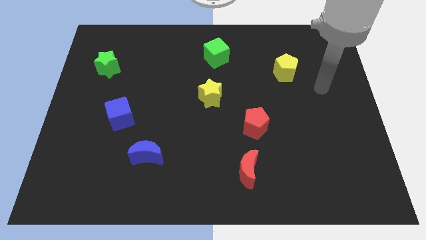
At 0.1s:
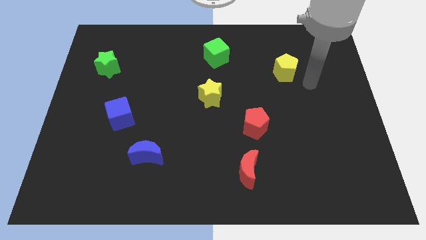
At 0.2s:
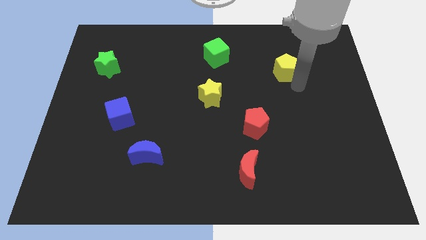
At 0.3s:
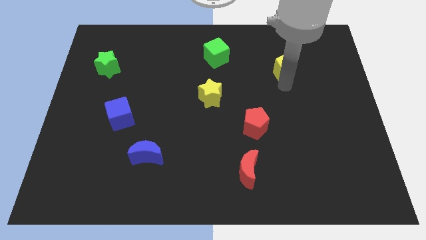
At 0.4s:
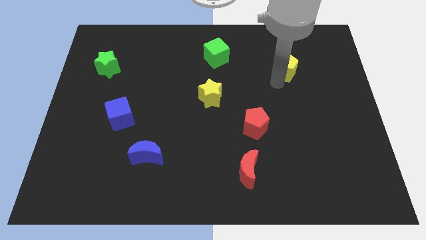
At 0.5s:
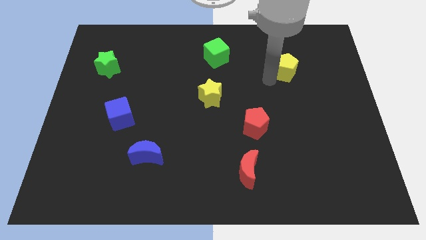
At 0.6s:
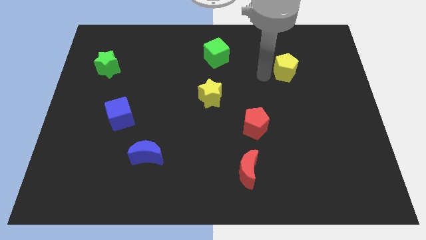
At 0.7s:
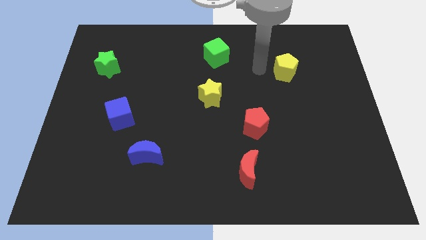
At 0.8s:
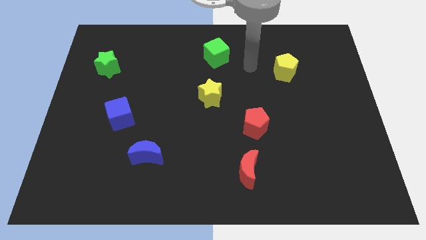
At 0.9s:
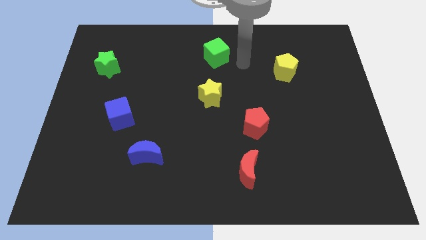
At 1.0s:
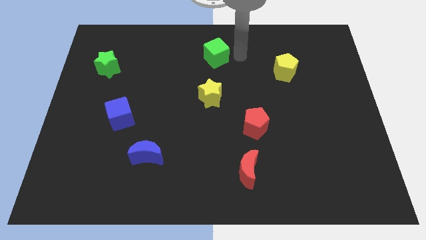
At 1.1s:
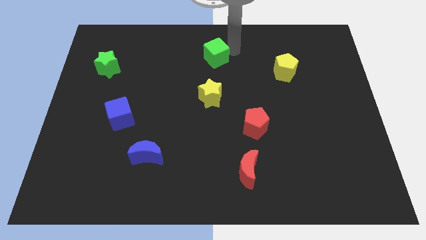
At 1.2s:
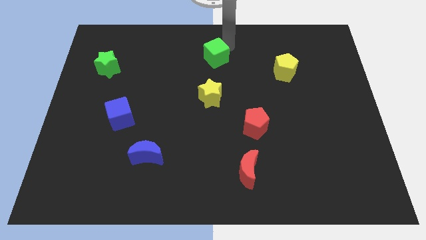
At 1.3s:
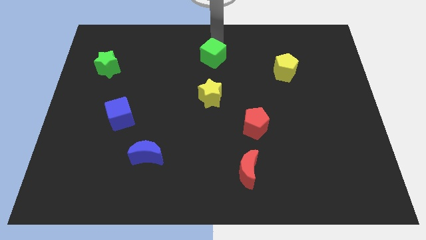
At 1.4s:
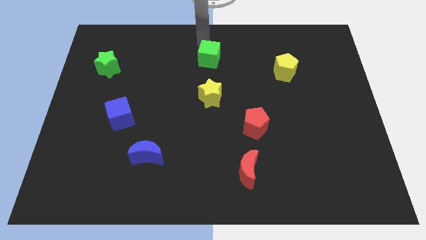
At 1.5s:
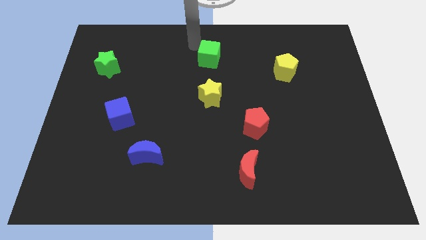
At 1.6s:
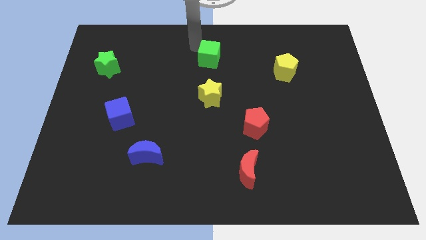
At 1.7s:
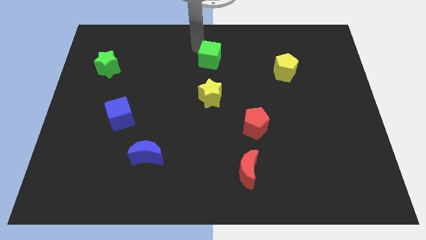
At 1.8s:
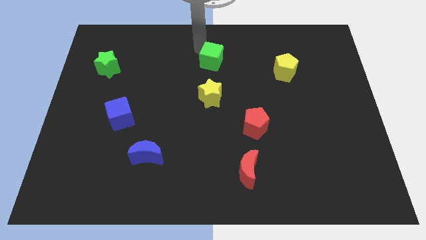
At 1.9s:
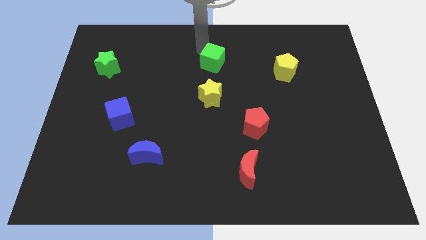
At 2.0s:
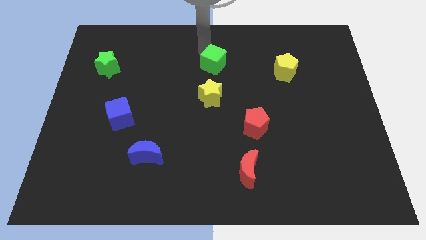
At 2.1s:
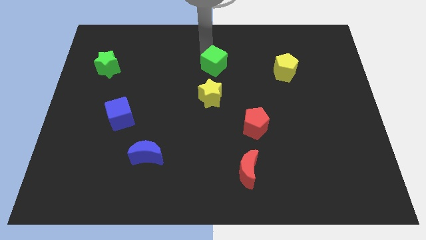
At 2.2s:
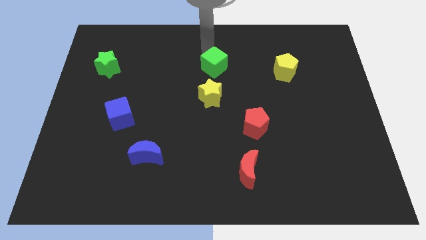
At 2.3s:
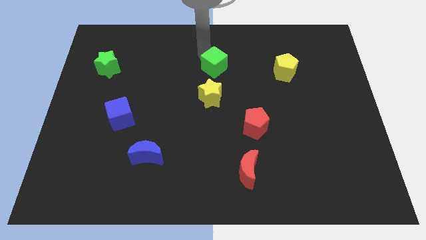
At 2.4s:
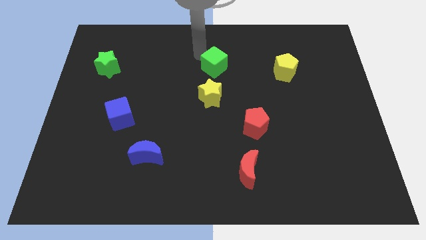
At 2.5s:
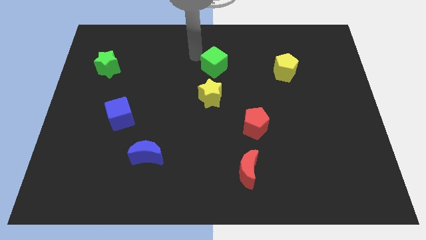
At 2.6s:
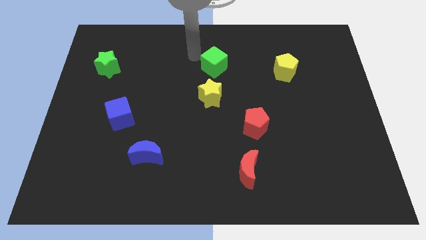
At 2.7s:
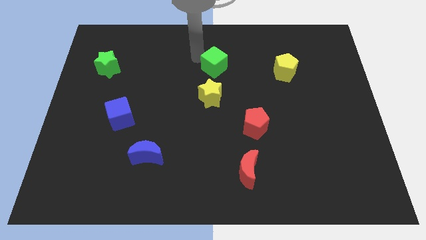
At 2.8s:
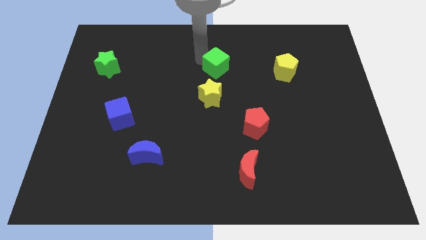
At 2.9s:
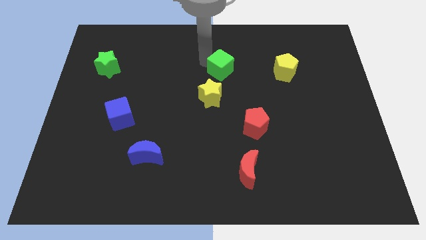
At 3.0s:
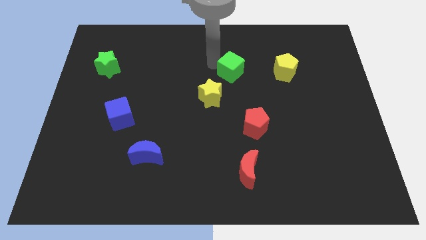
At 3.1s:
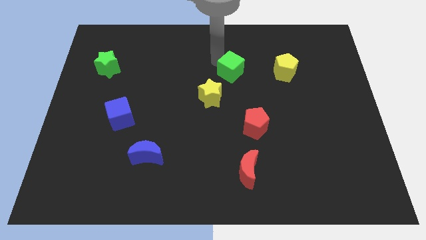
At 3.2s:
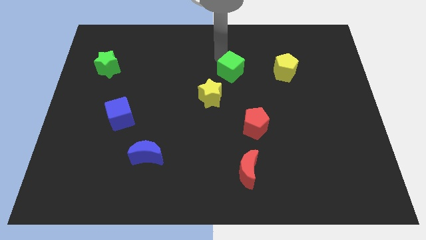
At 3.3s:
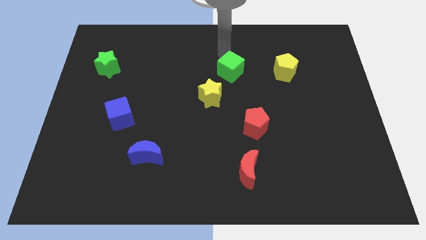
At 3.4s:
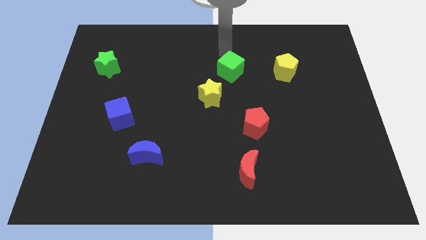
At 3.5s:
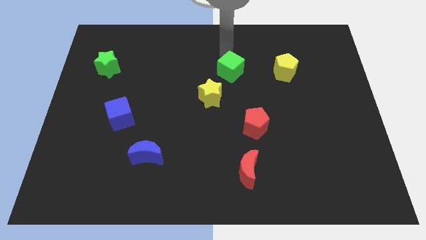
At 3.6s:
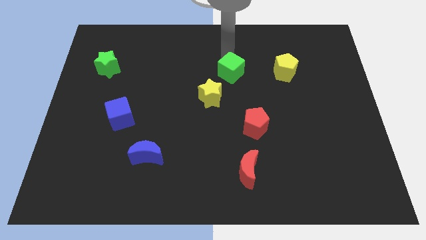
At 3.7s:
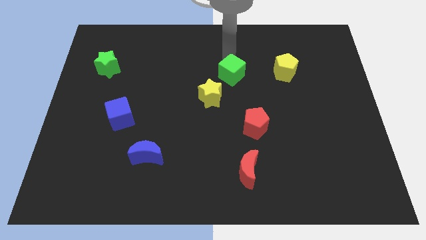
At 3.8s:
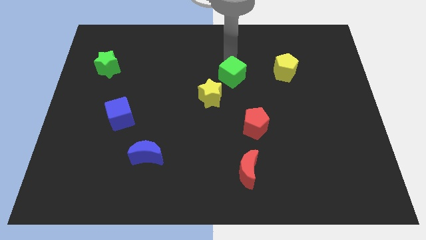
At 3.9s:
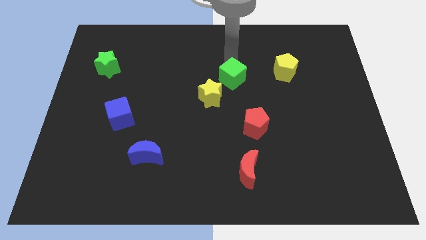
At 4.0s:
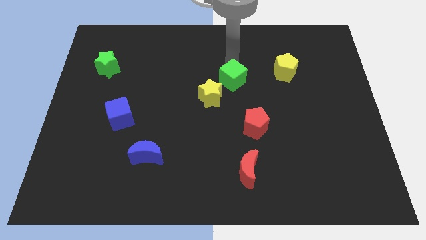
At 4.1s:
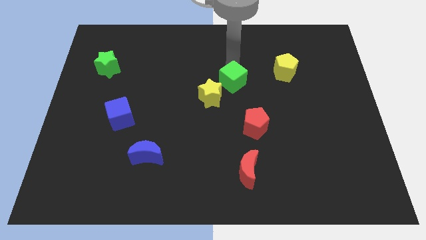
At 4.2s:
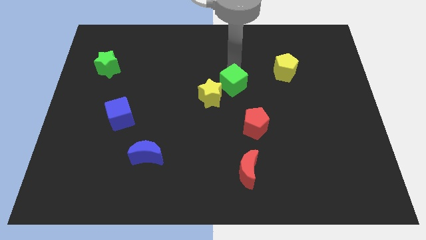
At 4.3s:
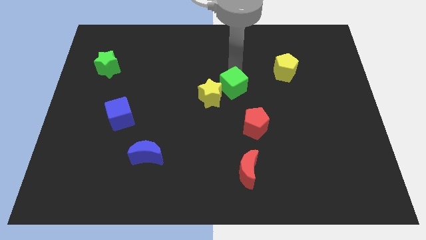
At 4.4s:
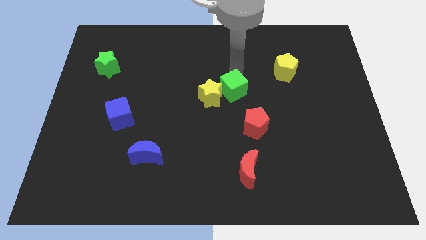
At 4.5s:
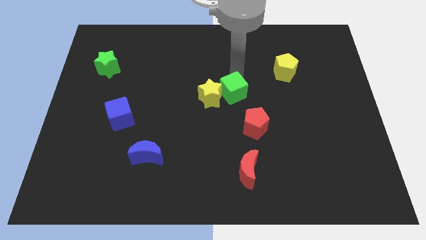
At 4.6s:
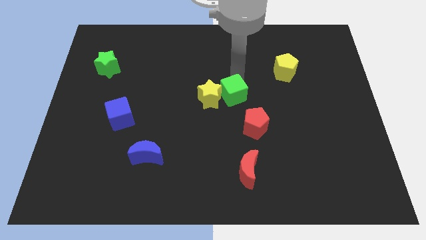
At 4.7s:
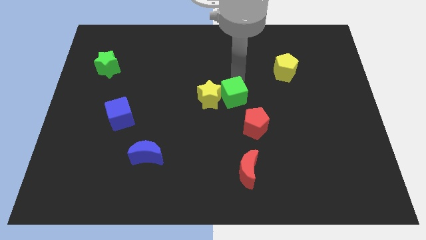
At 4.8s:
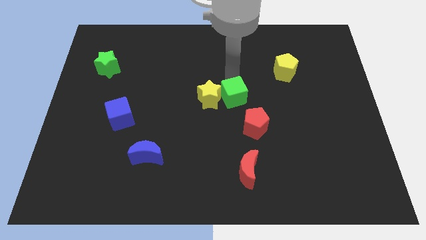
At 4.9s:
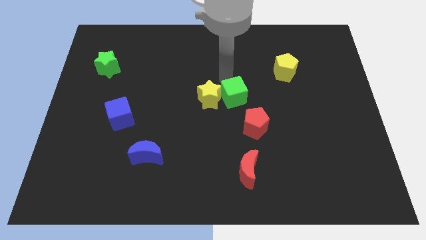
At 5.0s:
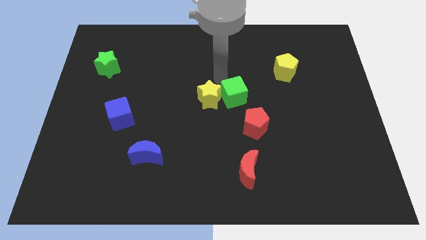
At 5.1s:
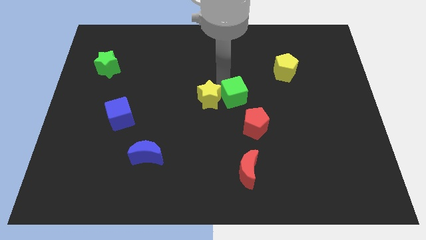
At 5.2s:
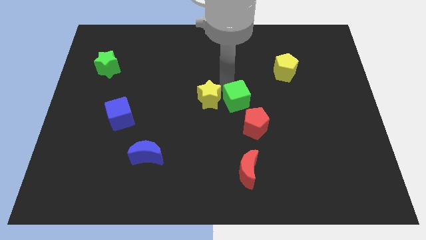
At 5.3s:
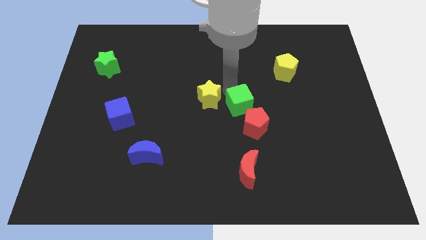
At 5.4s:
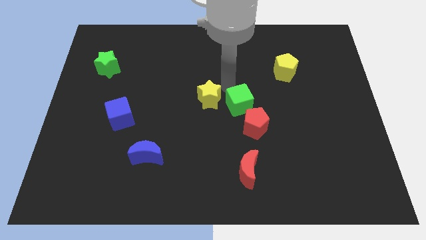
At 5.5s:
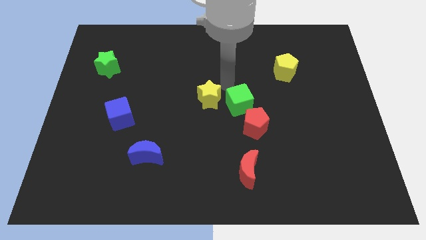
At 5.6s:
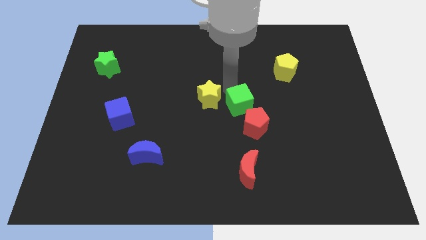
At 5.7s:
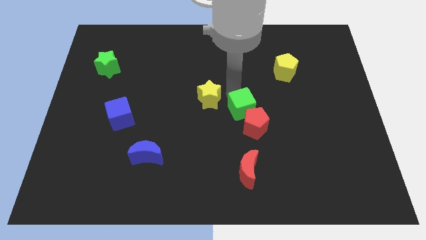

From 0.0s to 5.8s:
move the green cube next to the red pentagon
